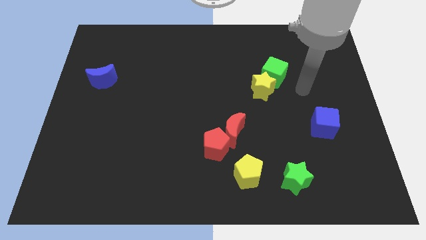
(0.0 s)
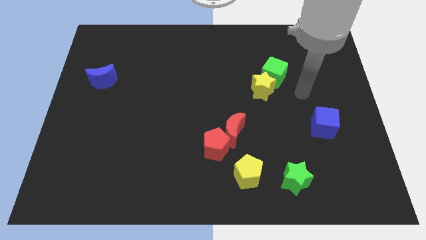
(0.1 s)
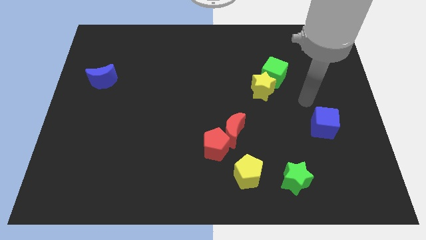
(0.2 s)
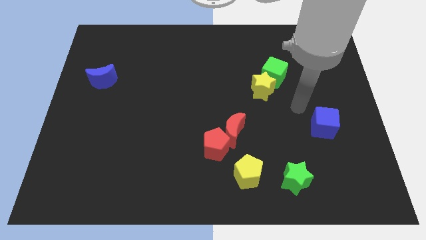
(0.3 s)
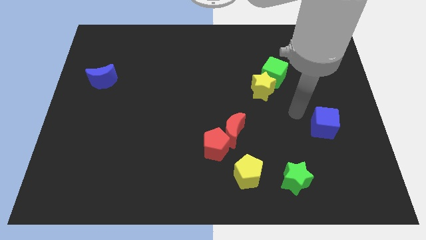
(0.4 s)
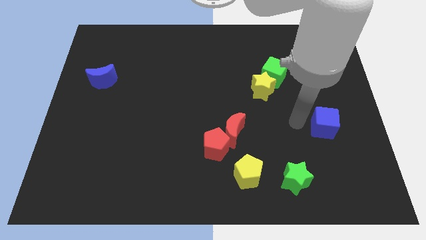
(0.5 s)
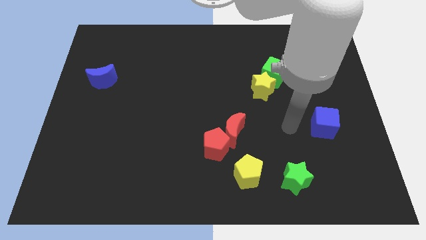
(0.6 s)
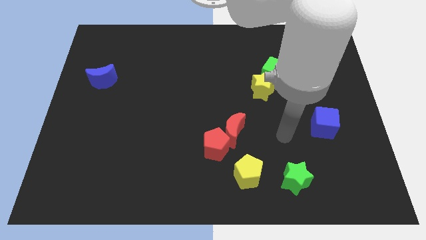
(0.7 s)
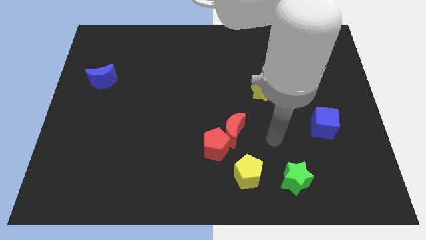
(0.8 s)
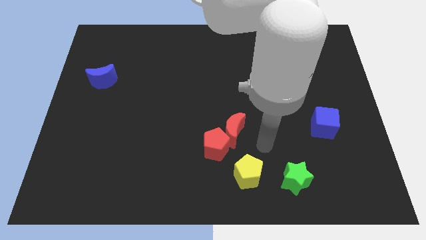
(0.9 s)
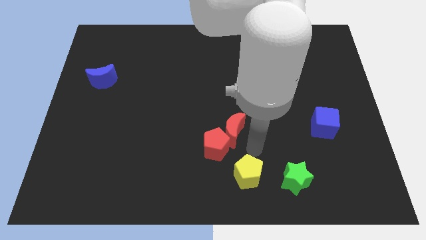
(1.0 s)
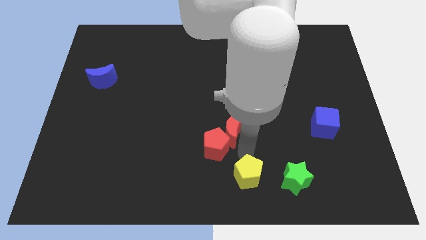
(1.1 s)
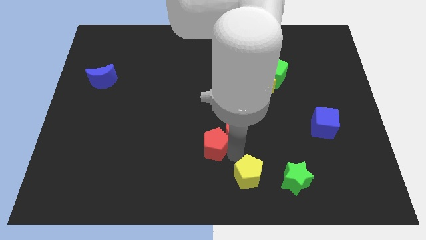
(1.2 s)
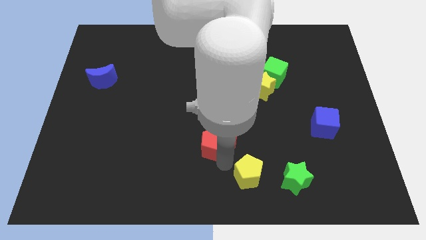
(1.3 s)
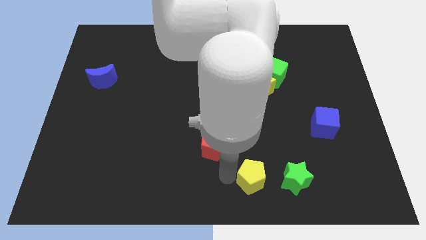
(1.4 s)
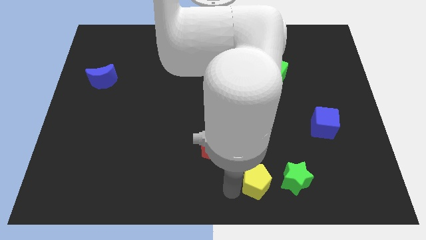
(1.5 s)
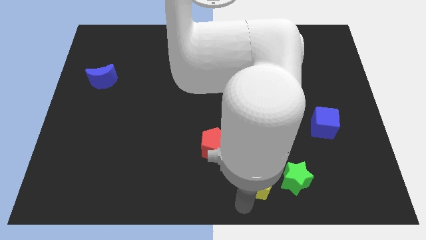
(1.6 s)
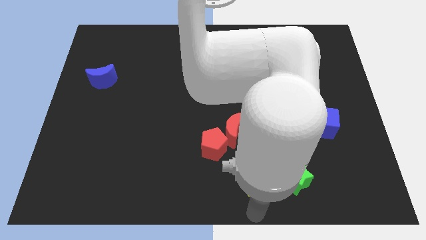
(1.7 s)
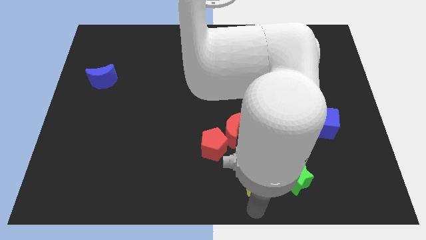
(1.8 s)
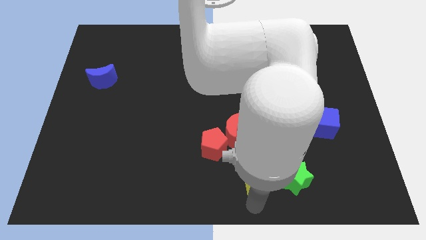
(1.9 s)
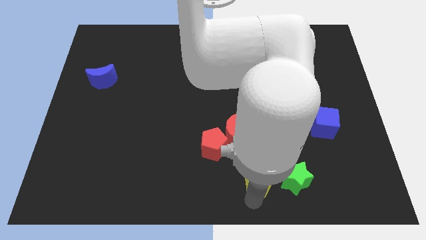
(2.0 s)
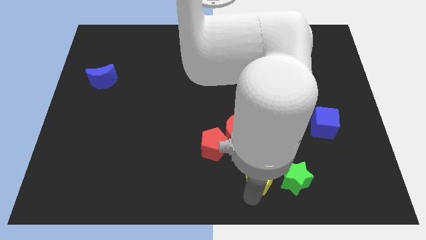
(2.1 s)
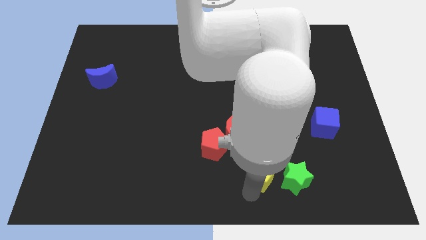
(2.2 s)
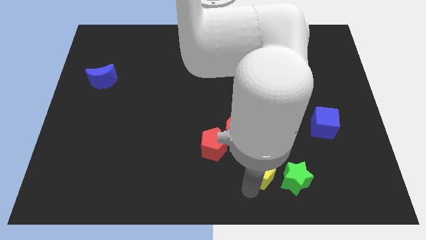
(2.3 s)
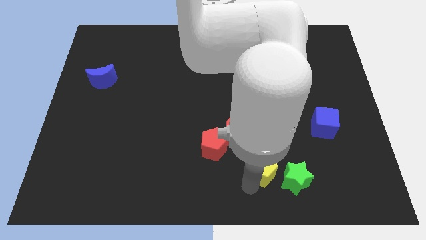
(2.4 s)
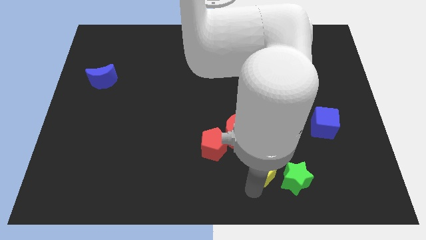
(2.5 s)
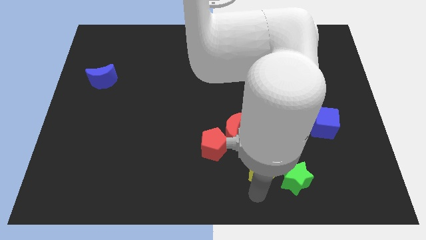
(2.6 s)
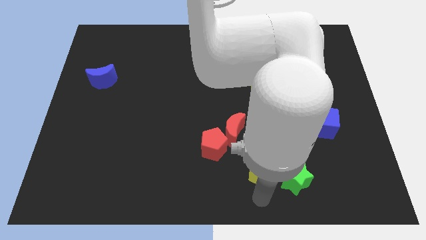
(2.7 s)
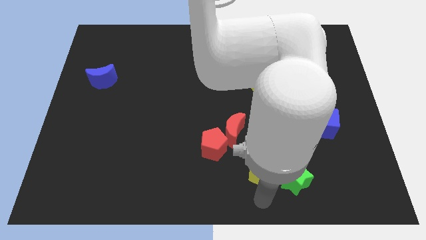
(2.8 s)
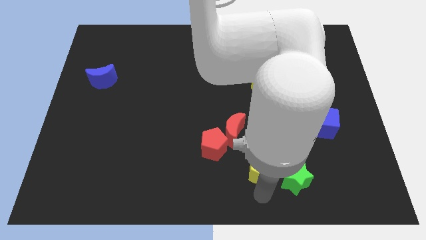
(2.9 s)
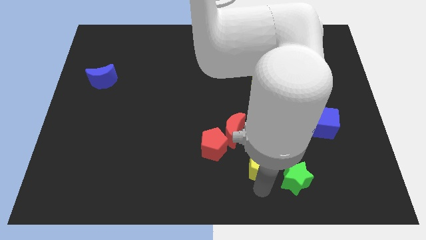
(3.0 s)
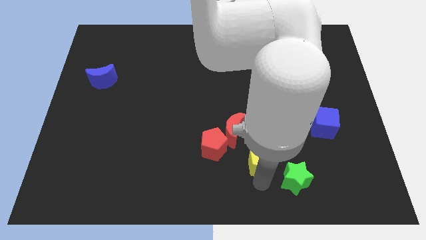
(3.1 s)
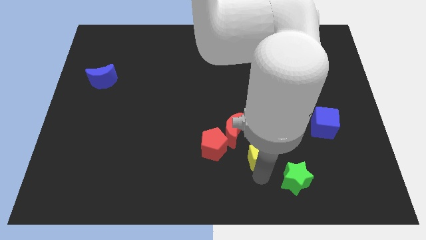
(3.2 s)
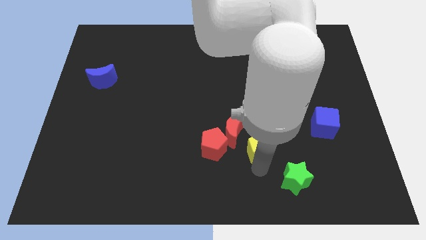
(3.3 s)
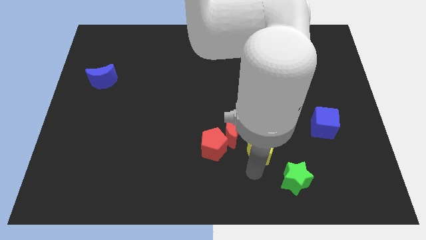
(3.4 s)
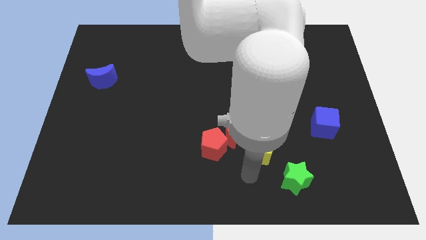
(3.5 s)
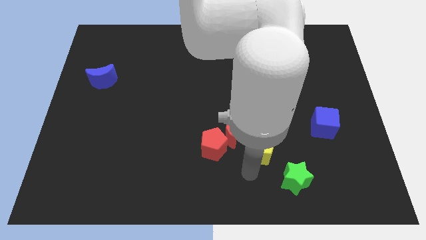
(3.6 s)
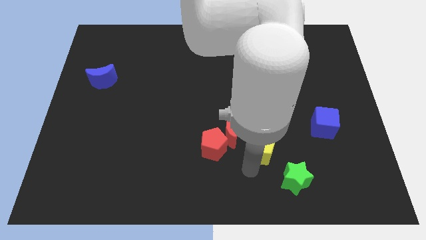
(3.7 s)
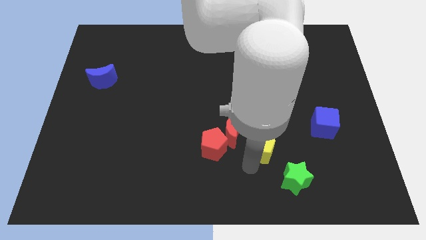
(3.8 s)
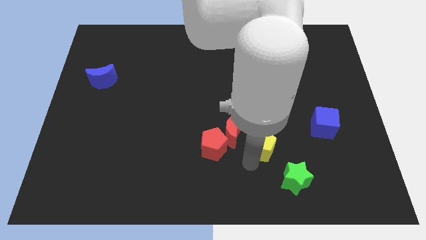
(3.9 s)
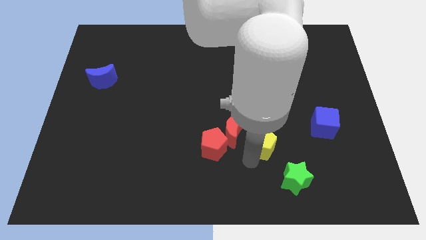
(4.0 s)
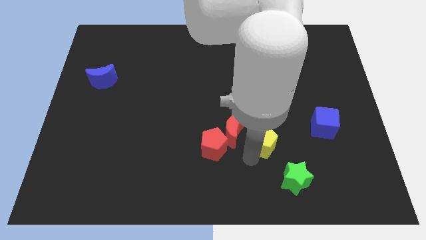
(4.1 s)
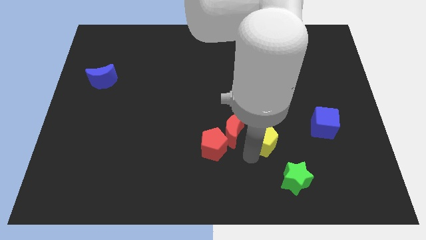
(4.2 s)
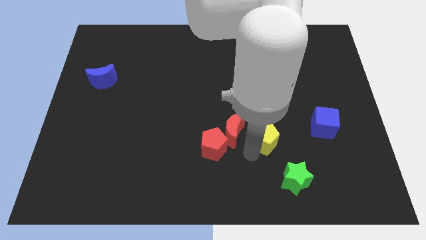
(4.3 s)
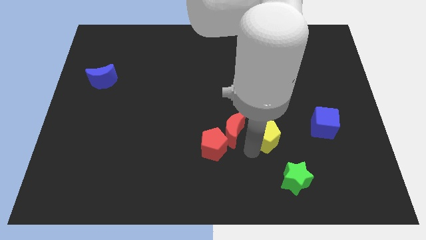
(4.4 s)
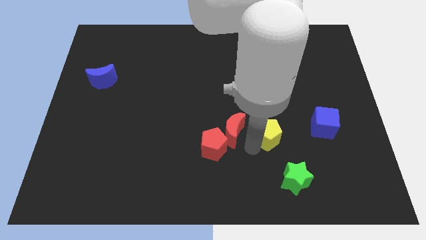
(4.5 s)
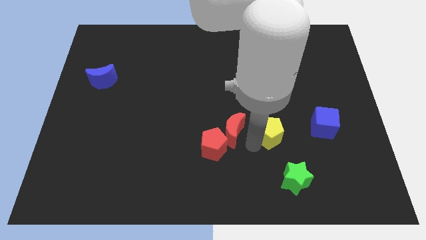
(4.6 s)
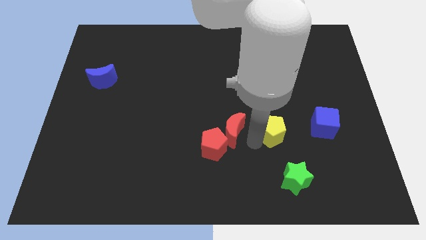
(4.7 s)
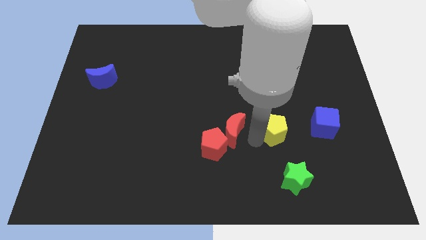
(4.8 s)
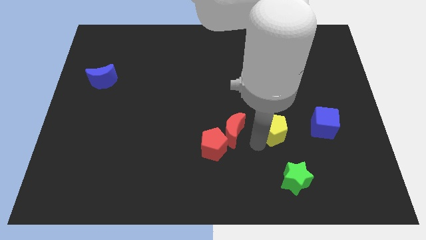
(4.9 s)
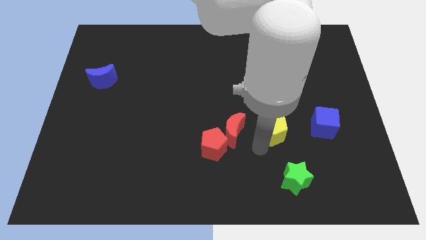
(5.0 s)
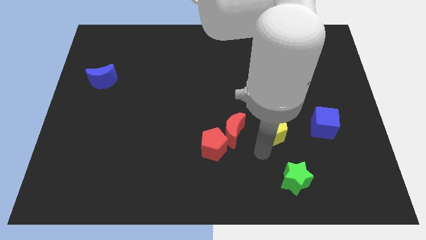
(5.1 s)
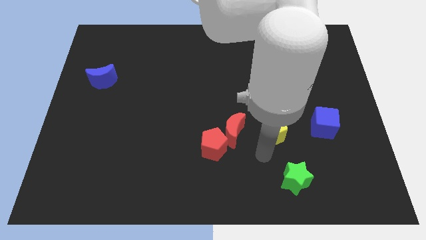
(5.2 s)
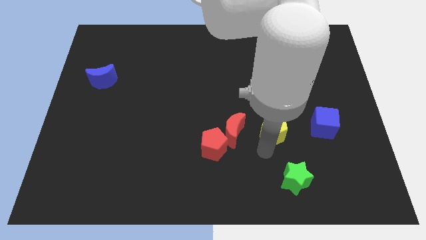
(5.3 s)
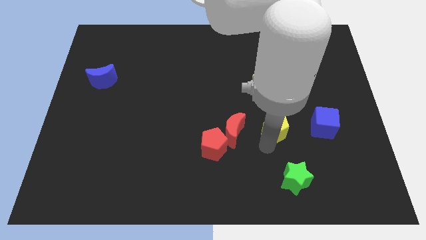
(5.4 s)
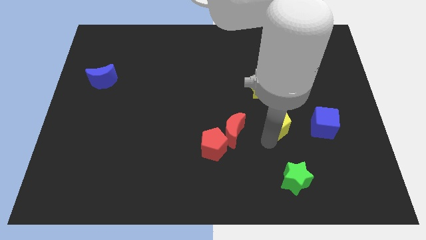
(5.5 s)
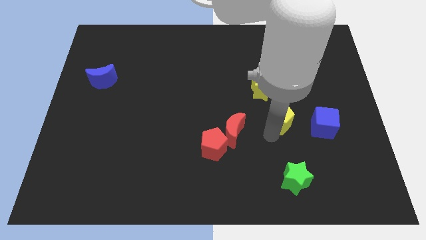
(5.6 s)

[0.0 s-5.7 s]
slide the yellow pentagon to the bottom right of the yellow star

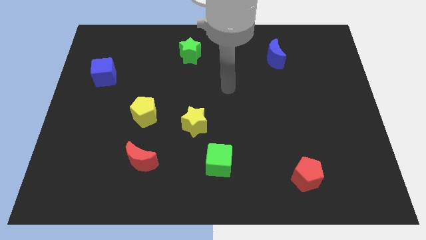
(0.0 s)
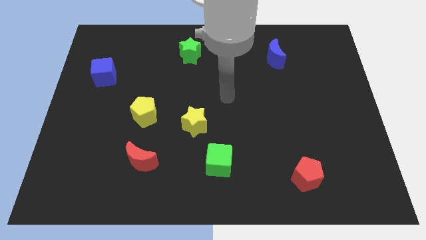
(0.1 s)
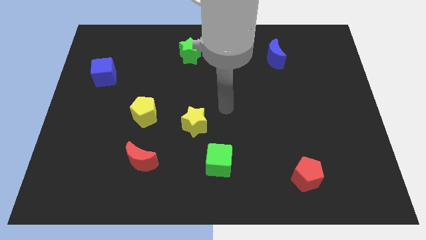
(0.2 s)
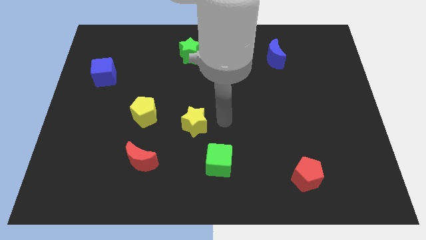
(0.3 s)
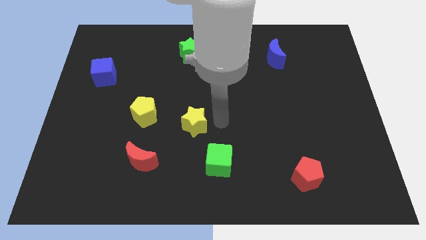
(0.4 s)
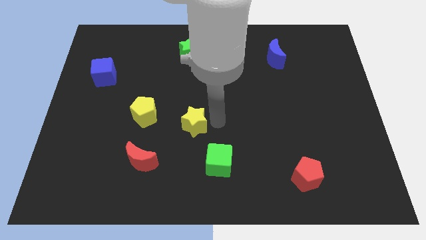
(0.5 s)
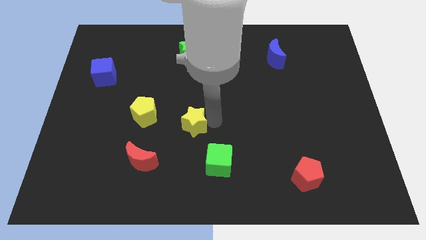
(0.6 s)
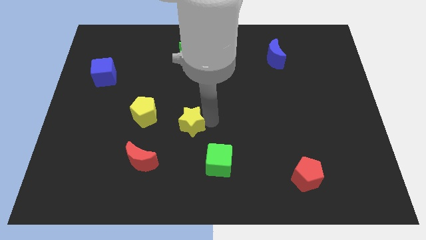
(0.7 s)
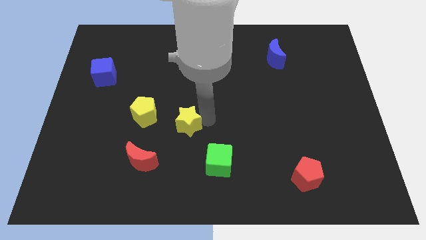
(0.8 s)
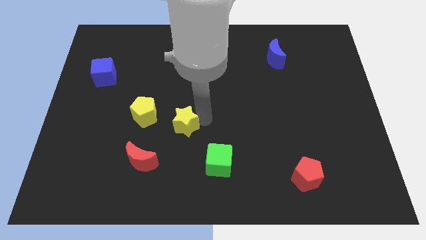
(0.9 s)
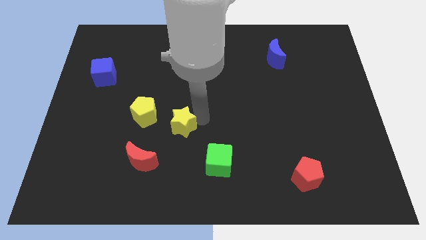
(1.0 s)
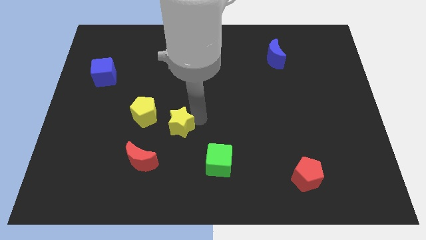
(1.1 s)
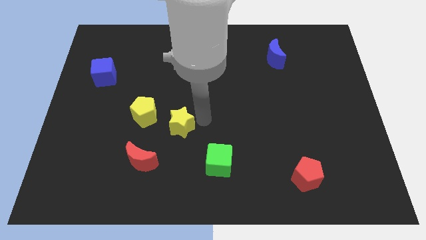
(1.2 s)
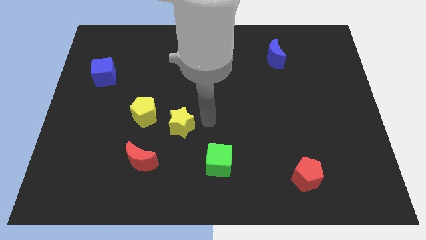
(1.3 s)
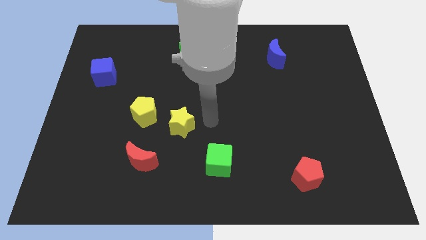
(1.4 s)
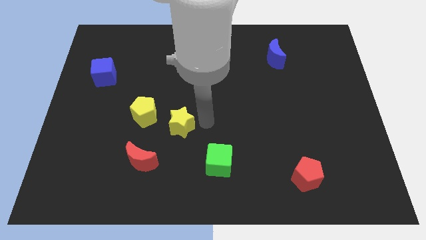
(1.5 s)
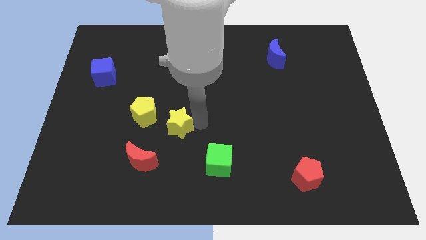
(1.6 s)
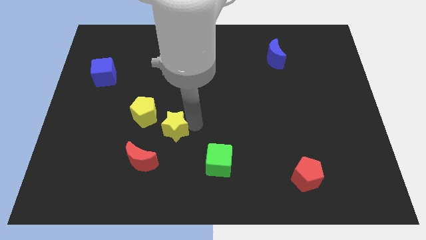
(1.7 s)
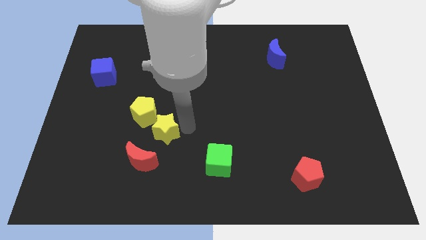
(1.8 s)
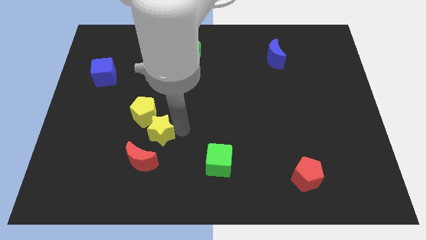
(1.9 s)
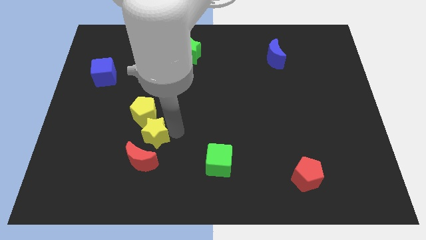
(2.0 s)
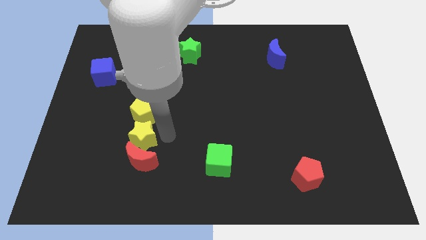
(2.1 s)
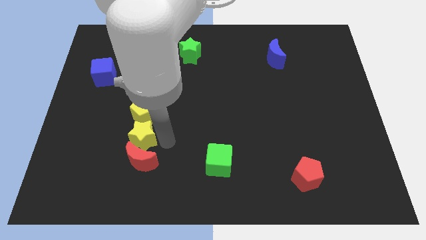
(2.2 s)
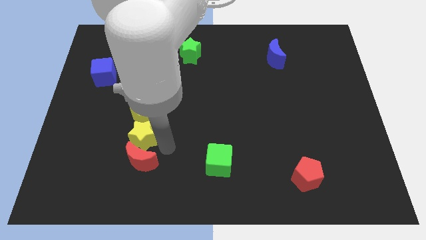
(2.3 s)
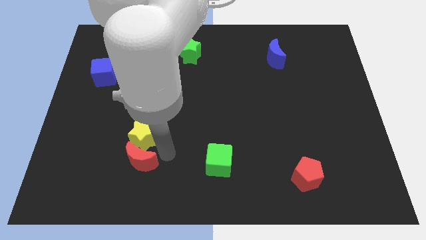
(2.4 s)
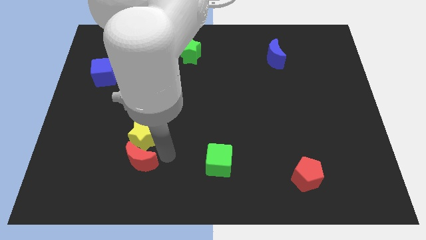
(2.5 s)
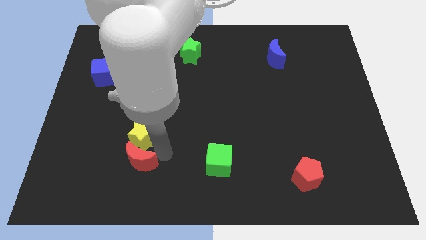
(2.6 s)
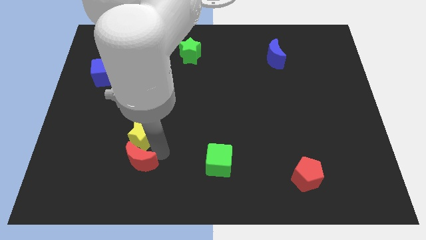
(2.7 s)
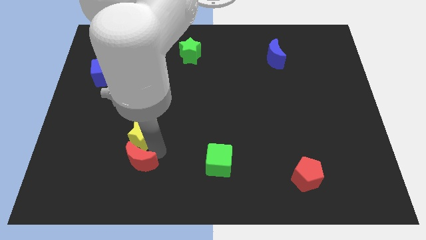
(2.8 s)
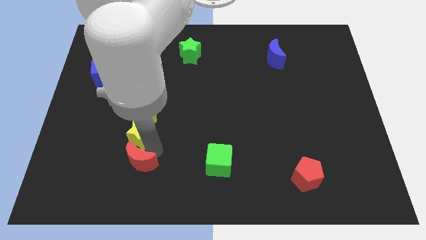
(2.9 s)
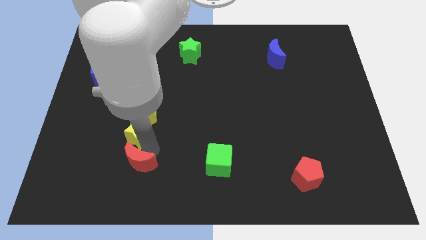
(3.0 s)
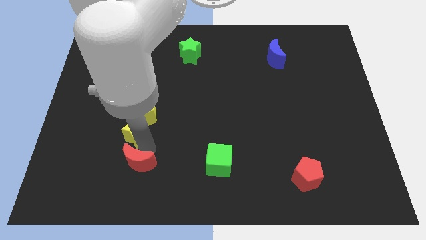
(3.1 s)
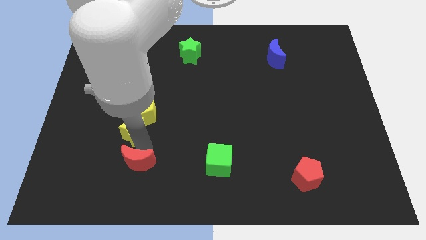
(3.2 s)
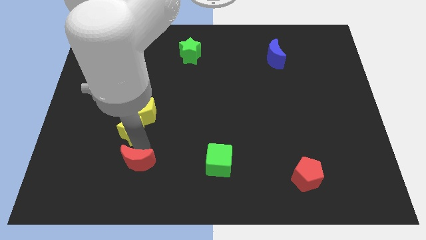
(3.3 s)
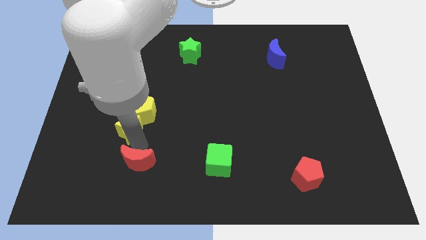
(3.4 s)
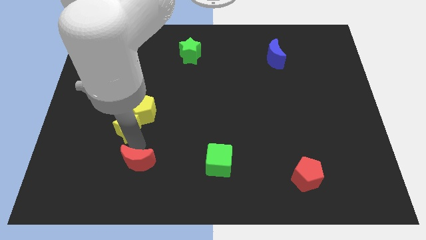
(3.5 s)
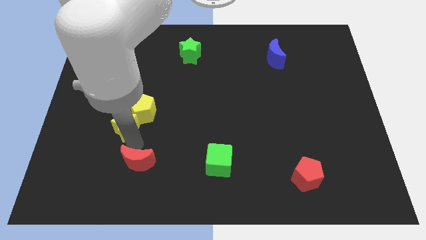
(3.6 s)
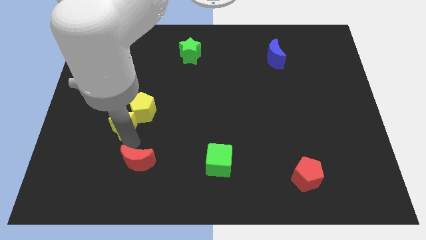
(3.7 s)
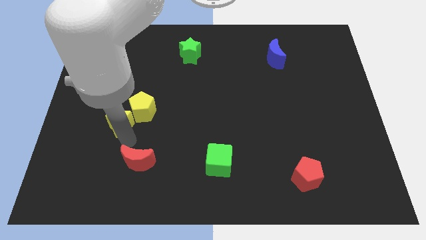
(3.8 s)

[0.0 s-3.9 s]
move the yellow star to the left of the yellow pentagon
